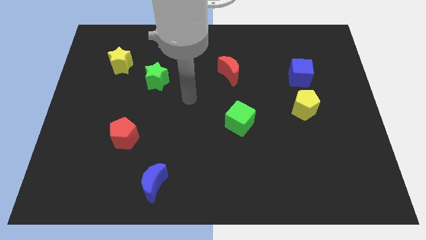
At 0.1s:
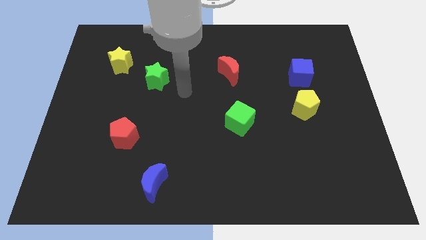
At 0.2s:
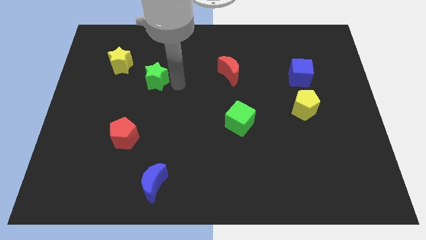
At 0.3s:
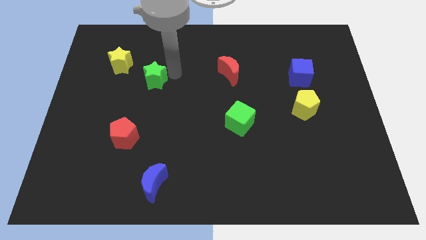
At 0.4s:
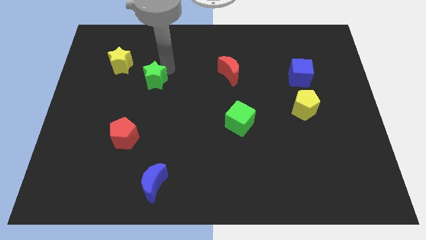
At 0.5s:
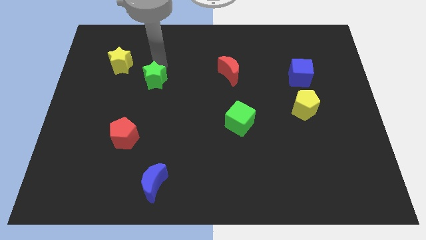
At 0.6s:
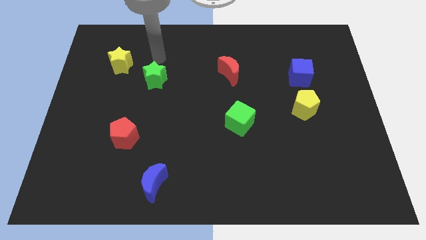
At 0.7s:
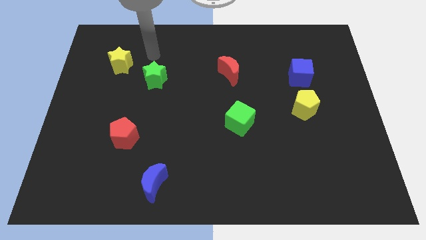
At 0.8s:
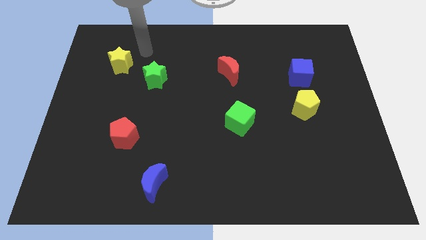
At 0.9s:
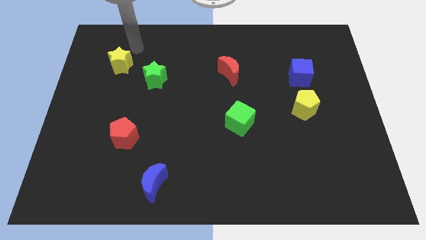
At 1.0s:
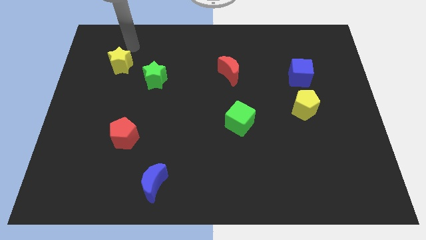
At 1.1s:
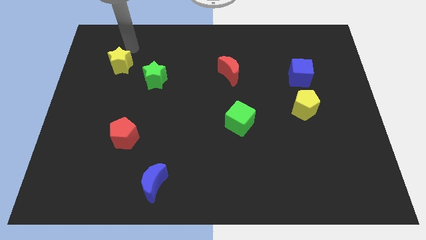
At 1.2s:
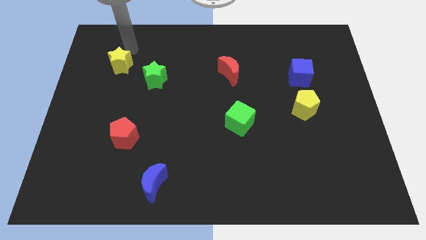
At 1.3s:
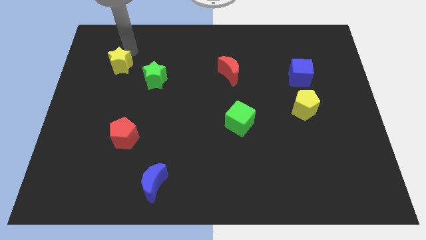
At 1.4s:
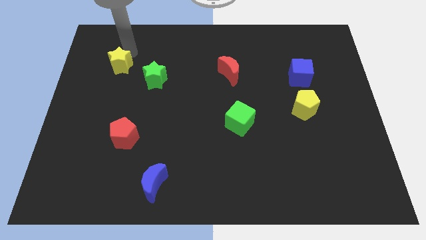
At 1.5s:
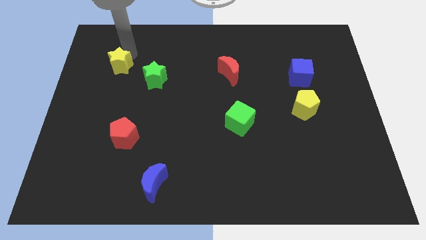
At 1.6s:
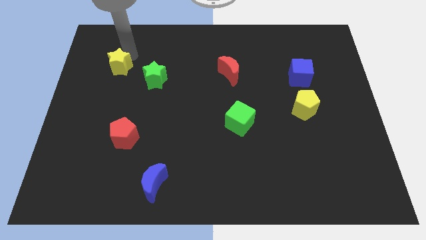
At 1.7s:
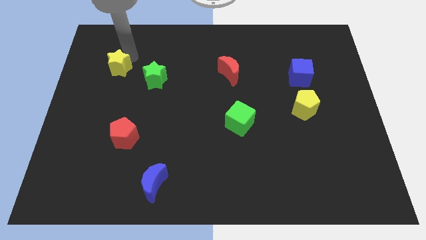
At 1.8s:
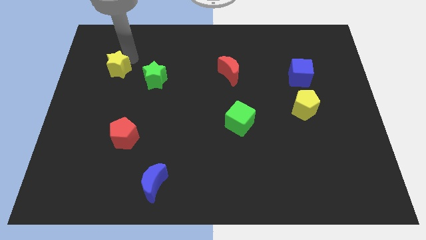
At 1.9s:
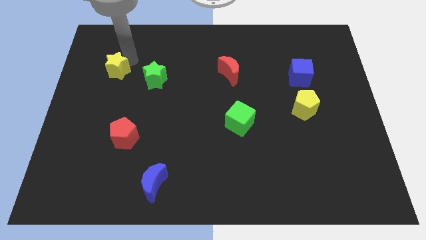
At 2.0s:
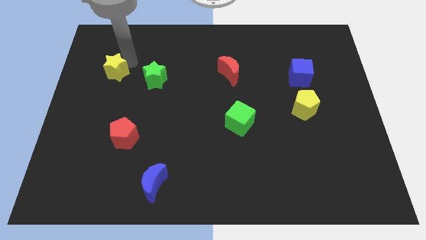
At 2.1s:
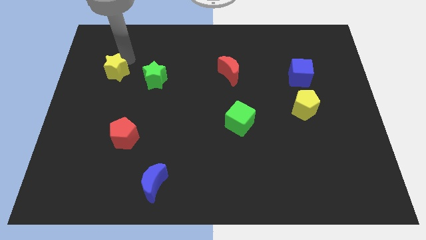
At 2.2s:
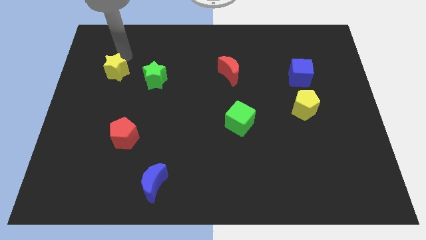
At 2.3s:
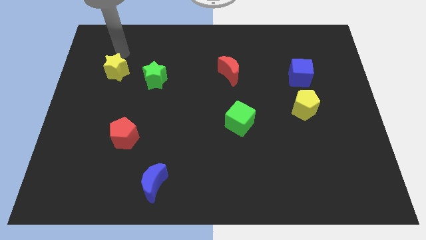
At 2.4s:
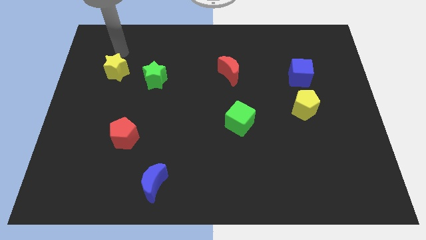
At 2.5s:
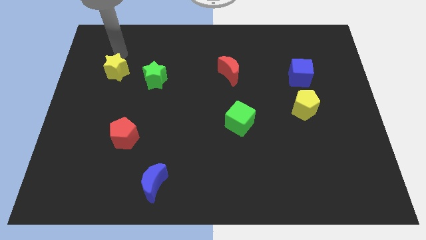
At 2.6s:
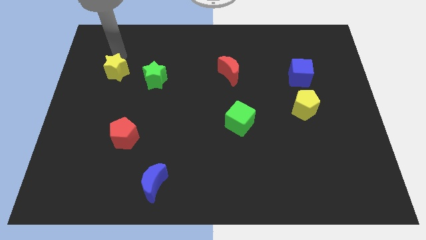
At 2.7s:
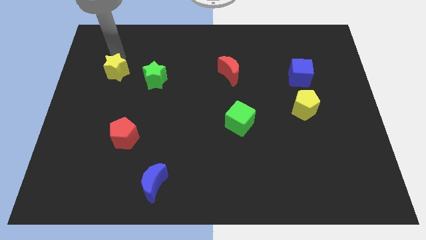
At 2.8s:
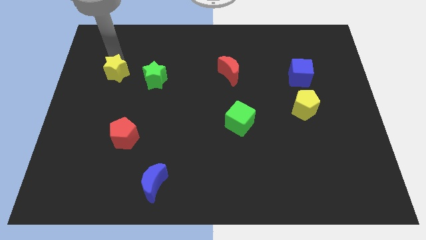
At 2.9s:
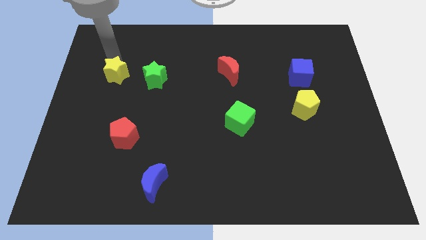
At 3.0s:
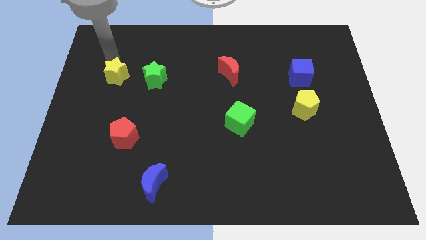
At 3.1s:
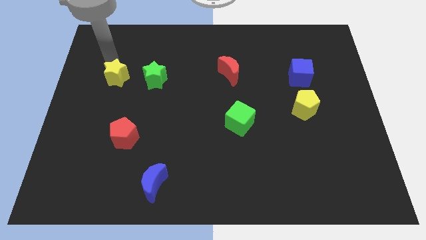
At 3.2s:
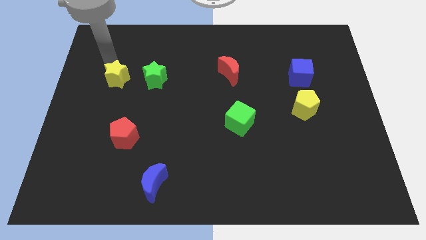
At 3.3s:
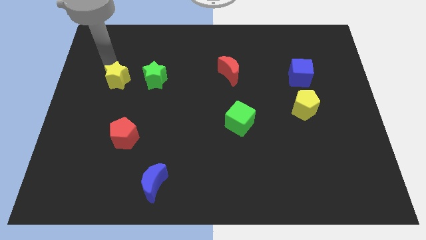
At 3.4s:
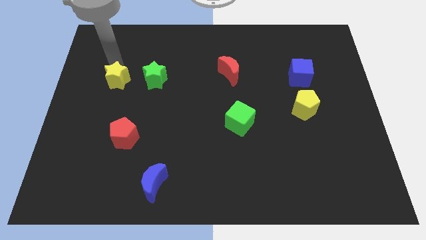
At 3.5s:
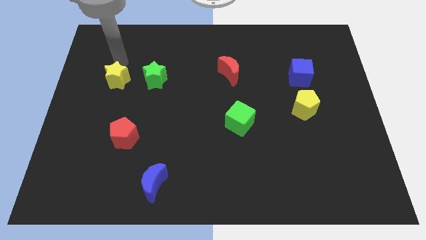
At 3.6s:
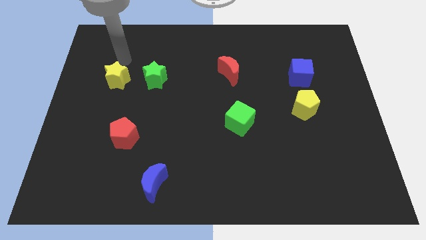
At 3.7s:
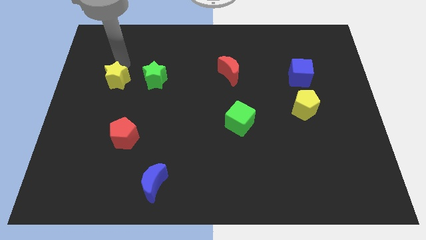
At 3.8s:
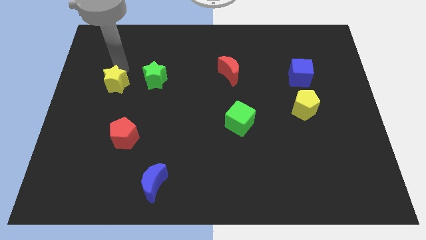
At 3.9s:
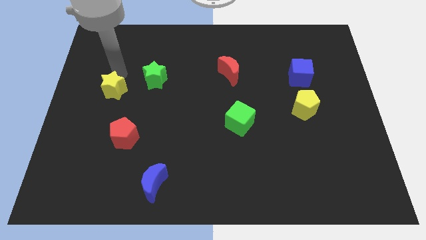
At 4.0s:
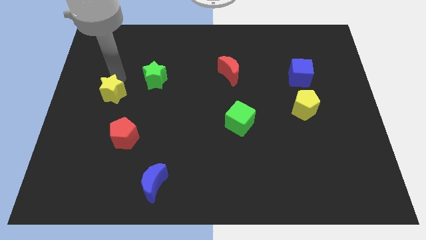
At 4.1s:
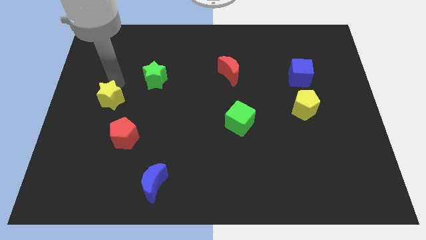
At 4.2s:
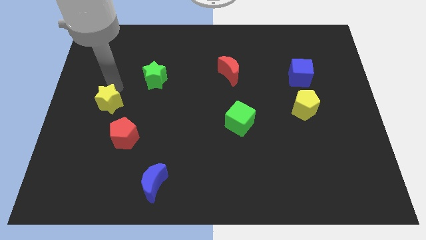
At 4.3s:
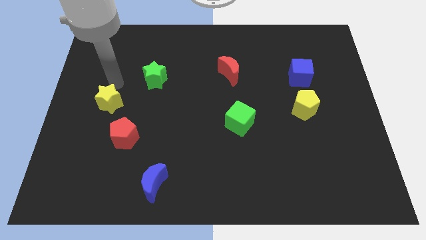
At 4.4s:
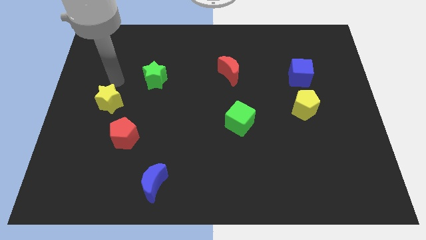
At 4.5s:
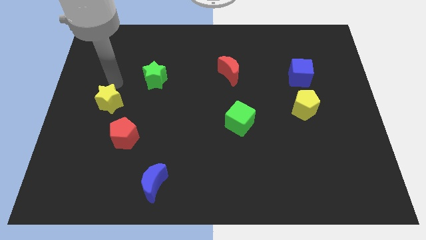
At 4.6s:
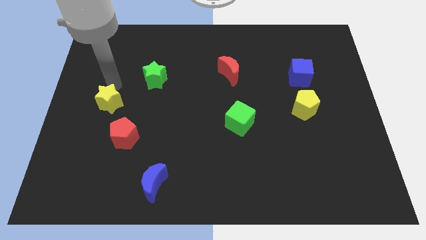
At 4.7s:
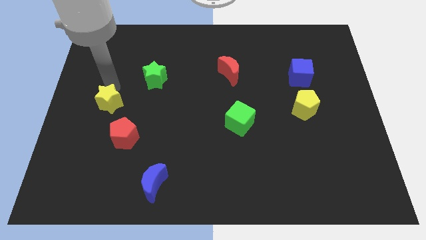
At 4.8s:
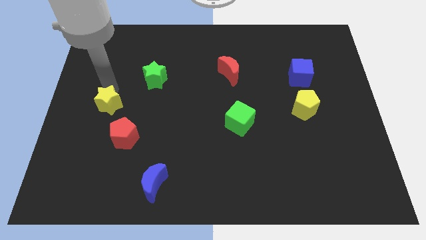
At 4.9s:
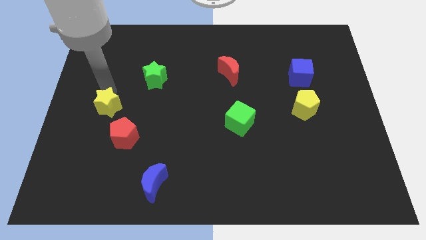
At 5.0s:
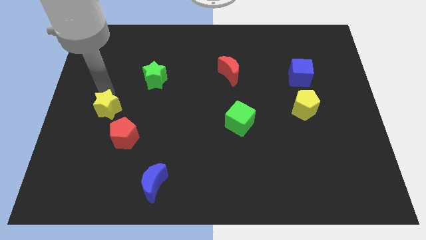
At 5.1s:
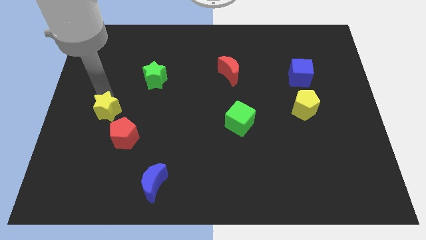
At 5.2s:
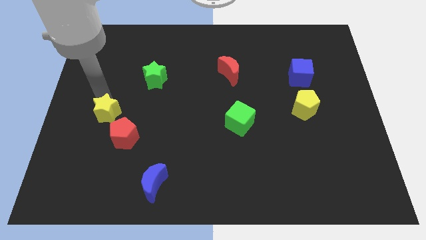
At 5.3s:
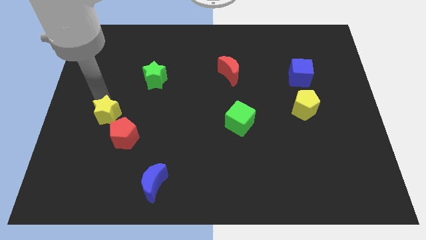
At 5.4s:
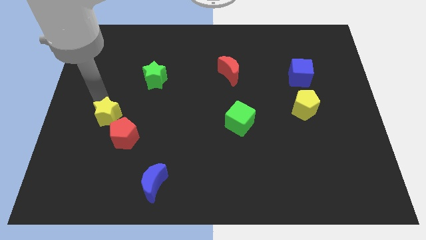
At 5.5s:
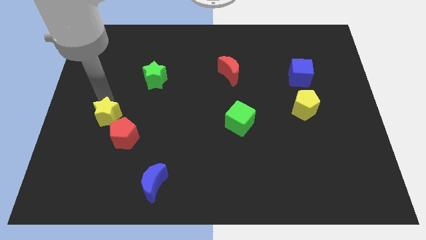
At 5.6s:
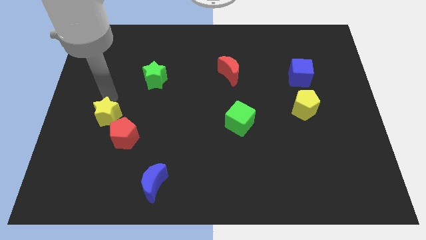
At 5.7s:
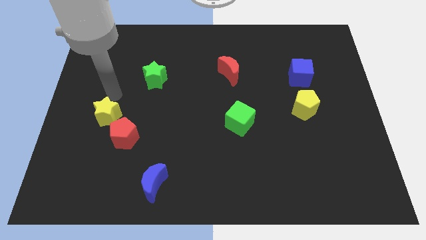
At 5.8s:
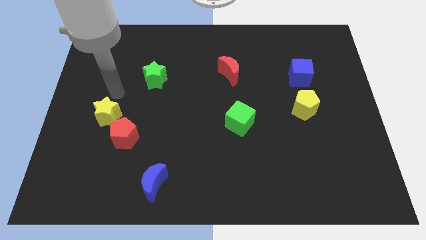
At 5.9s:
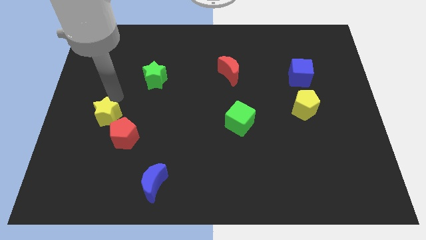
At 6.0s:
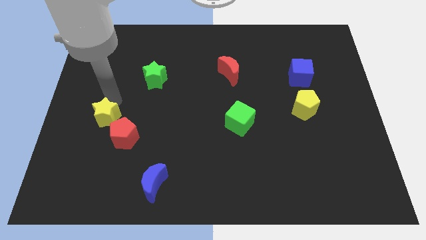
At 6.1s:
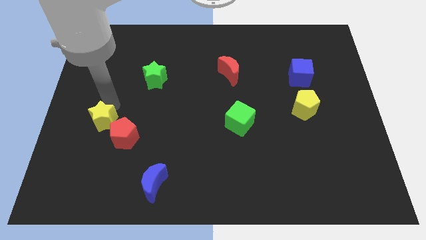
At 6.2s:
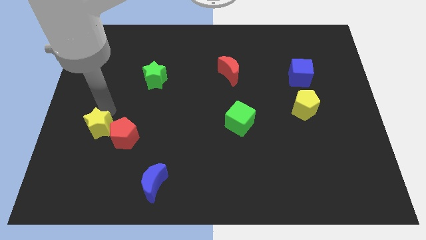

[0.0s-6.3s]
push the yellow star downwards

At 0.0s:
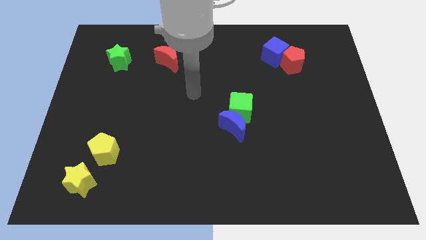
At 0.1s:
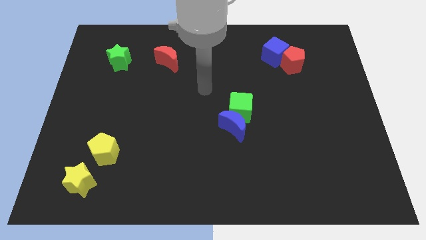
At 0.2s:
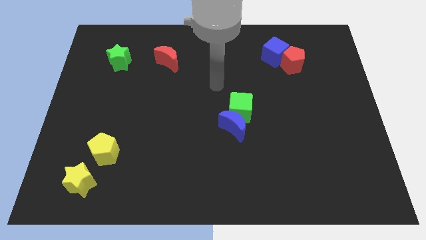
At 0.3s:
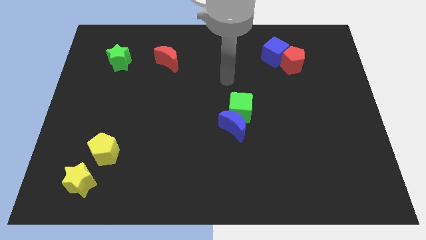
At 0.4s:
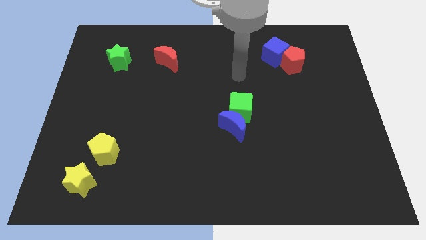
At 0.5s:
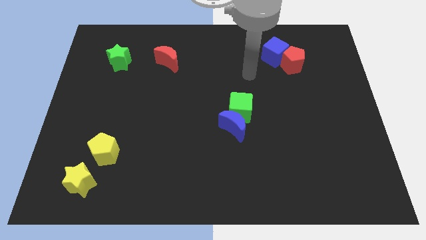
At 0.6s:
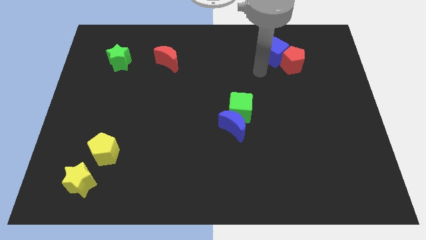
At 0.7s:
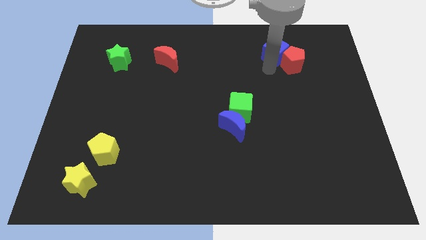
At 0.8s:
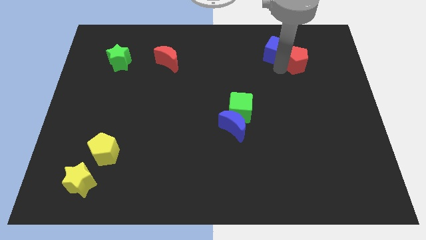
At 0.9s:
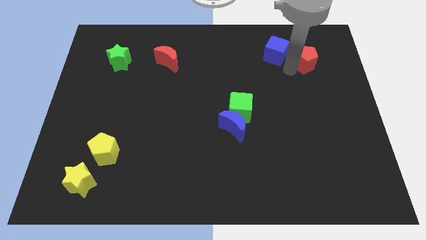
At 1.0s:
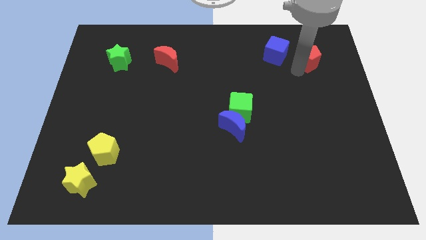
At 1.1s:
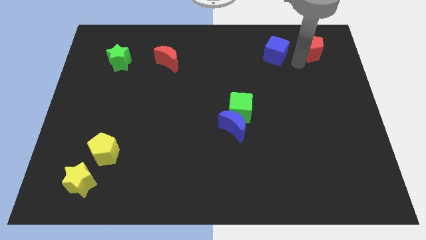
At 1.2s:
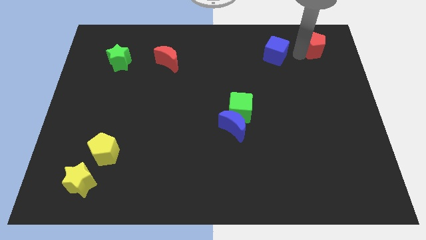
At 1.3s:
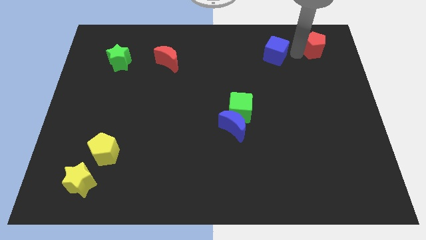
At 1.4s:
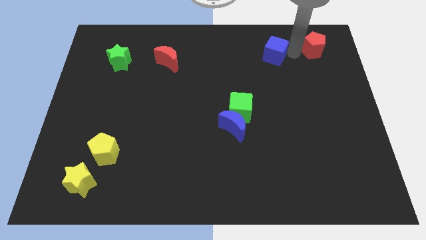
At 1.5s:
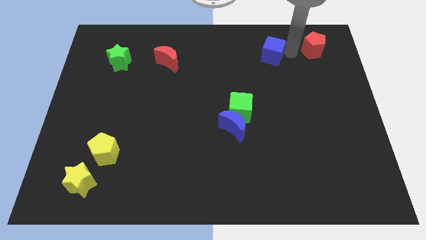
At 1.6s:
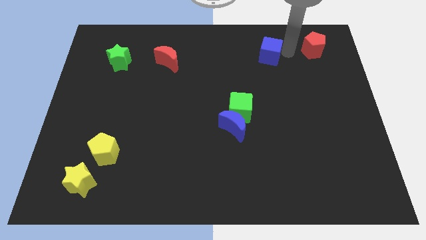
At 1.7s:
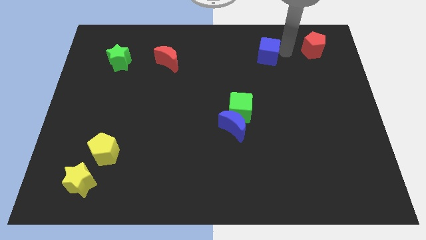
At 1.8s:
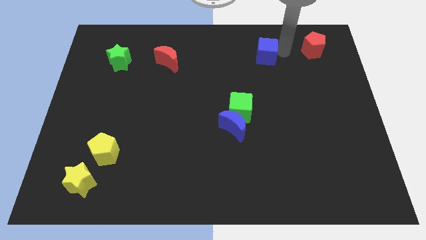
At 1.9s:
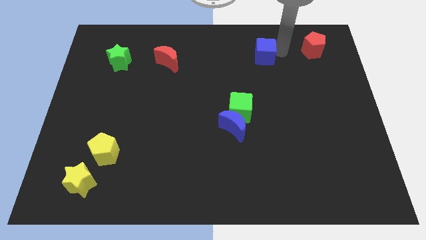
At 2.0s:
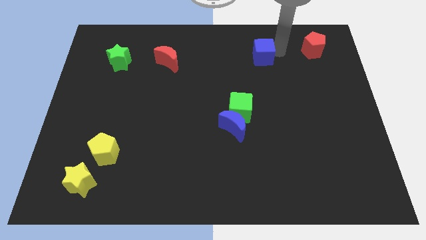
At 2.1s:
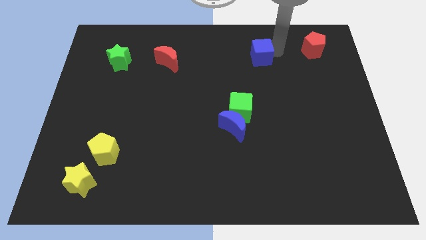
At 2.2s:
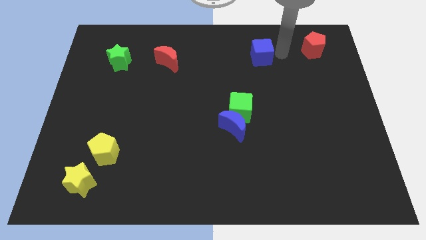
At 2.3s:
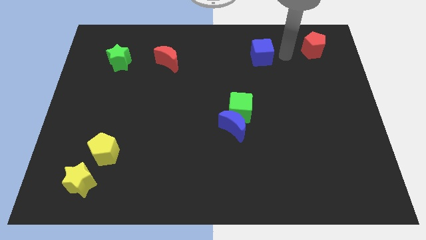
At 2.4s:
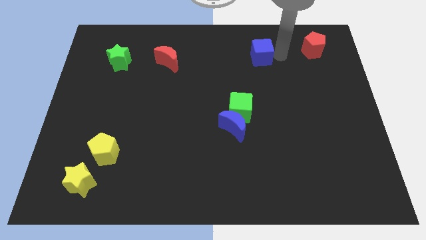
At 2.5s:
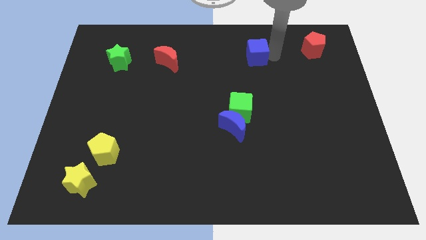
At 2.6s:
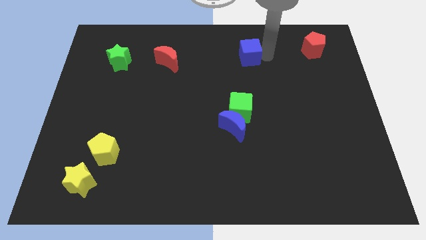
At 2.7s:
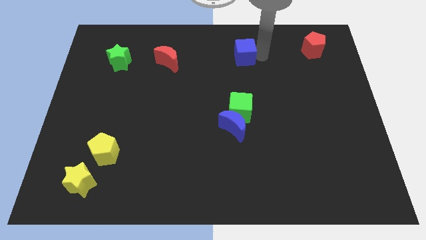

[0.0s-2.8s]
slightly push the blue cube left
